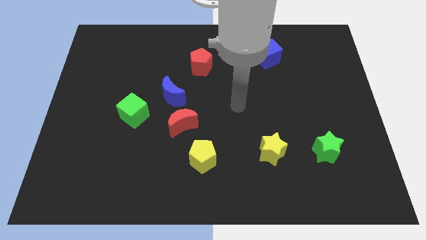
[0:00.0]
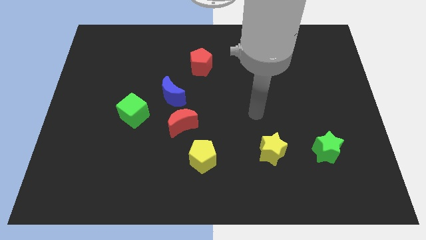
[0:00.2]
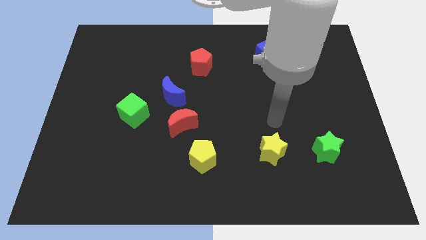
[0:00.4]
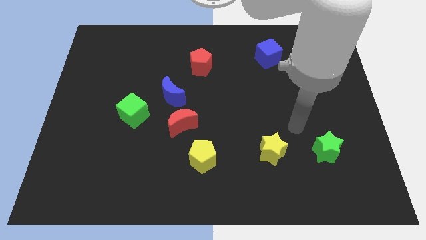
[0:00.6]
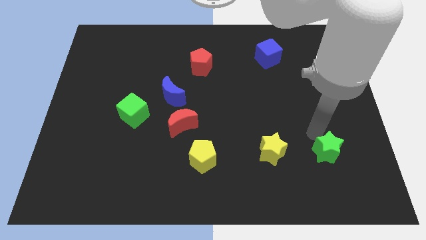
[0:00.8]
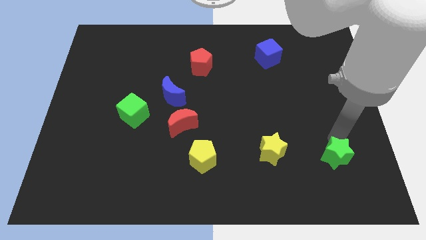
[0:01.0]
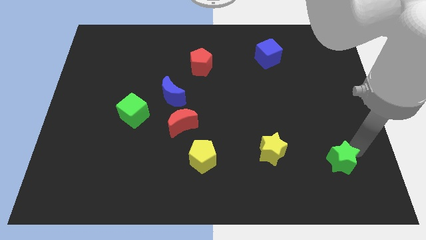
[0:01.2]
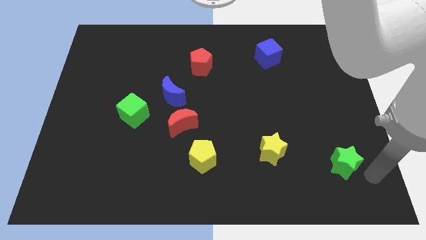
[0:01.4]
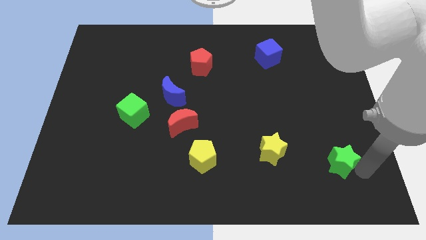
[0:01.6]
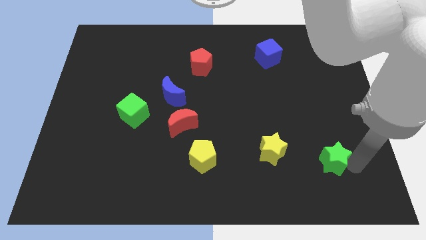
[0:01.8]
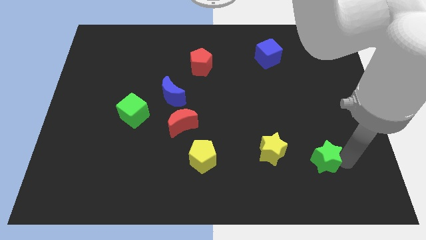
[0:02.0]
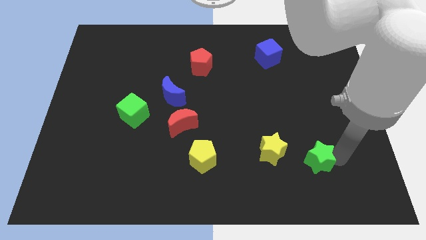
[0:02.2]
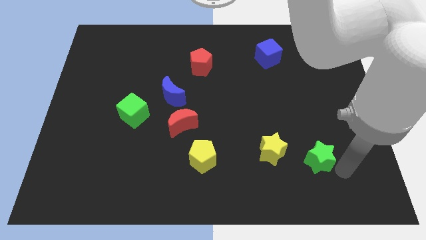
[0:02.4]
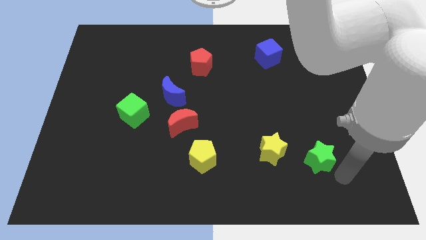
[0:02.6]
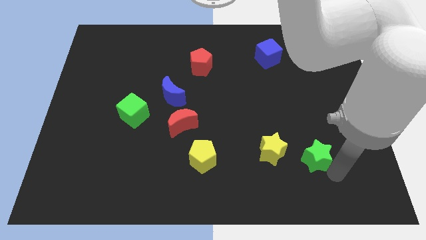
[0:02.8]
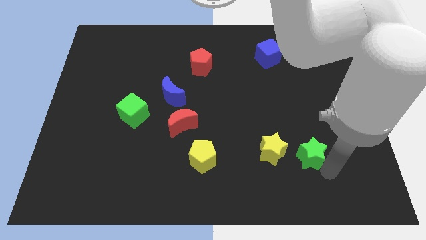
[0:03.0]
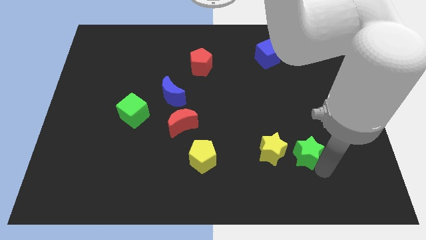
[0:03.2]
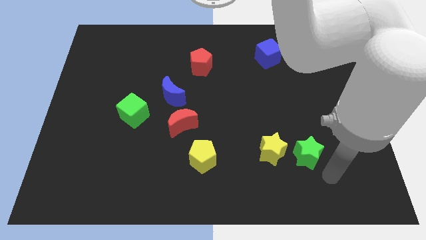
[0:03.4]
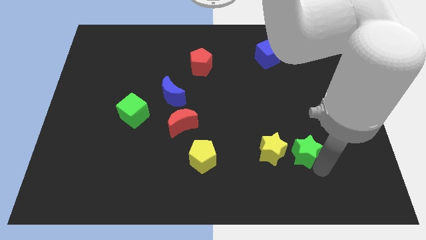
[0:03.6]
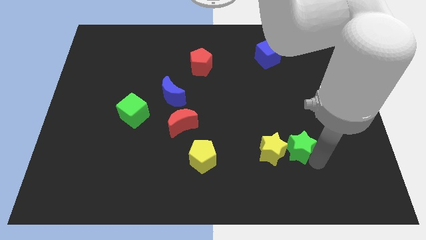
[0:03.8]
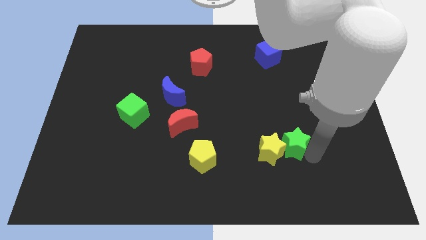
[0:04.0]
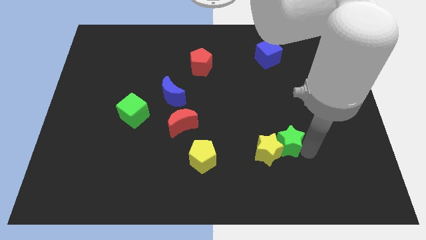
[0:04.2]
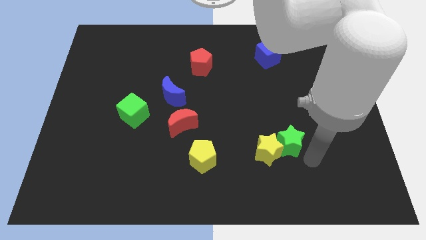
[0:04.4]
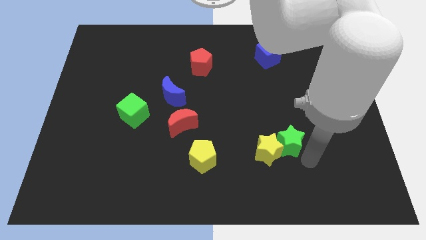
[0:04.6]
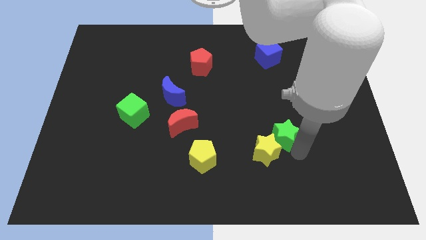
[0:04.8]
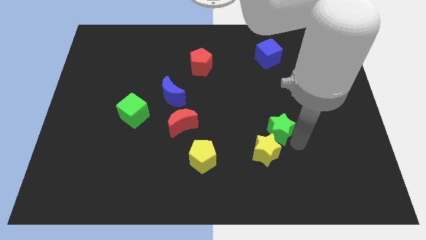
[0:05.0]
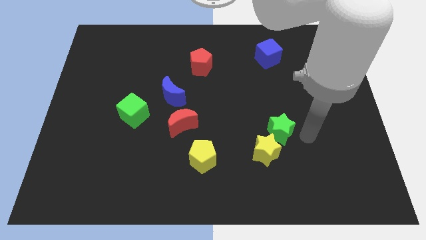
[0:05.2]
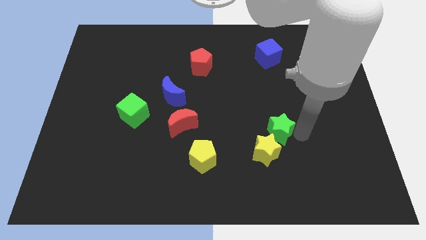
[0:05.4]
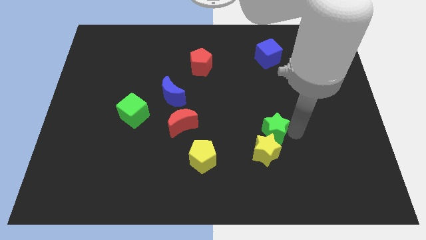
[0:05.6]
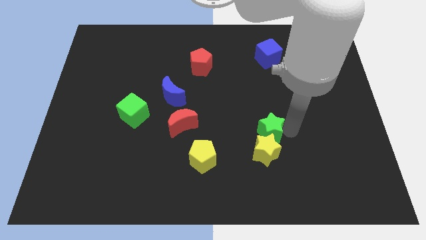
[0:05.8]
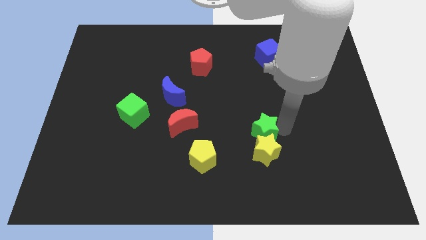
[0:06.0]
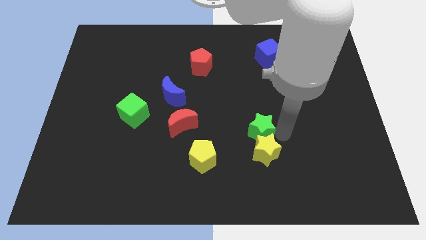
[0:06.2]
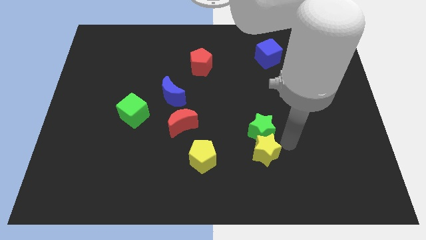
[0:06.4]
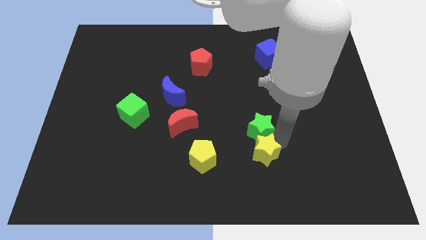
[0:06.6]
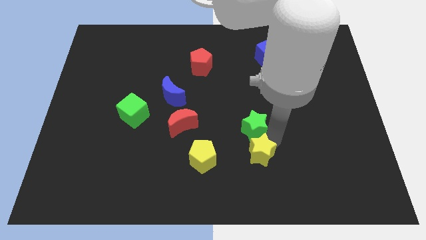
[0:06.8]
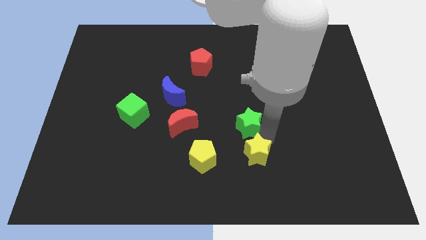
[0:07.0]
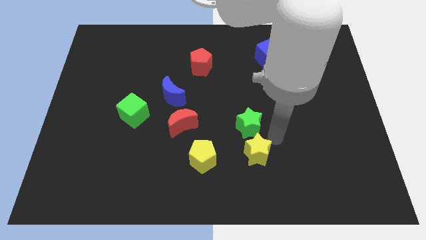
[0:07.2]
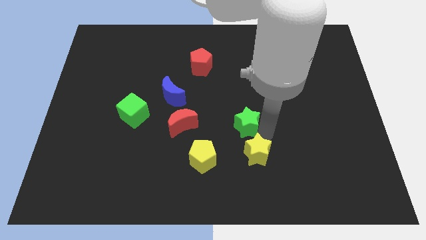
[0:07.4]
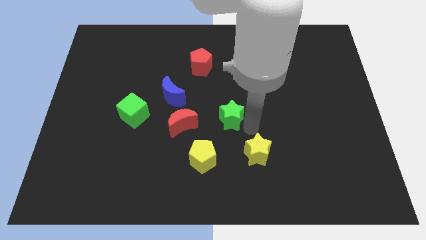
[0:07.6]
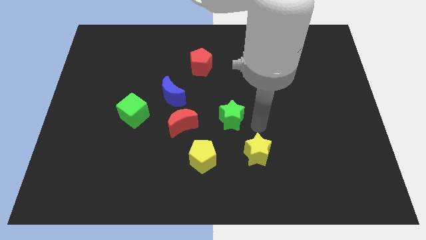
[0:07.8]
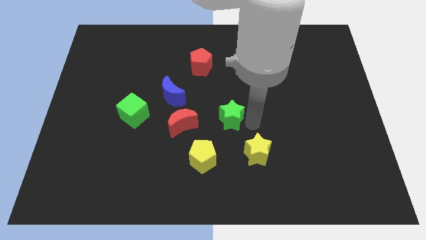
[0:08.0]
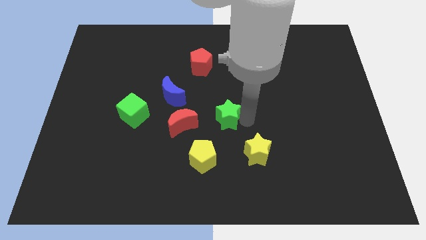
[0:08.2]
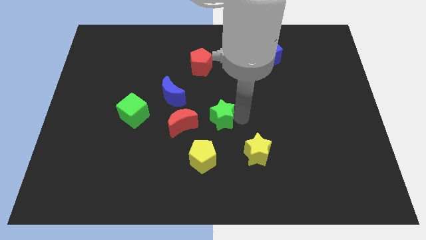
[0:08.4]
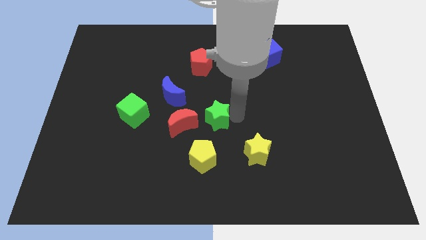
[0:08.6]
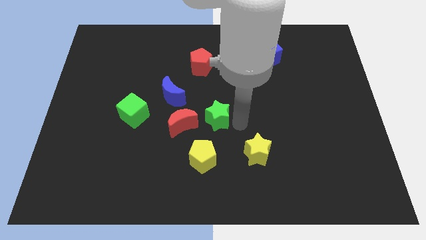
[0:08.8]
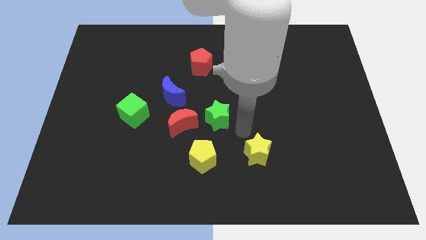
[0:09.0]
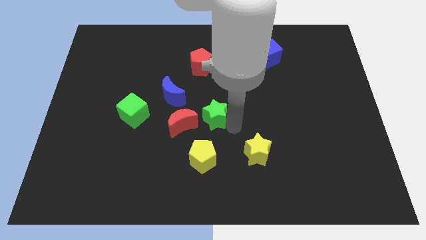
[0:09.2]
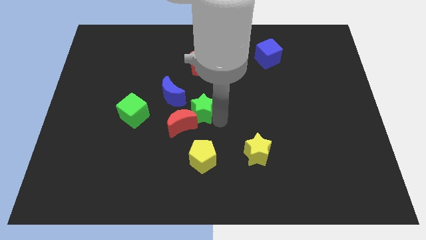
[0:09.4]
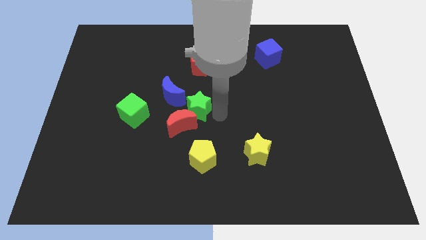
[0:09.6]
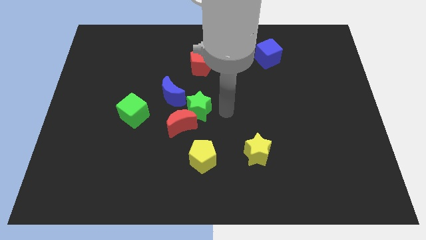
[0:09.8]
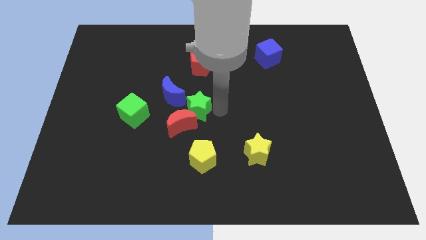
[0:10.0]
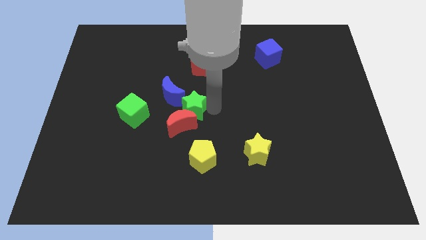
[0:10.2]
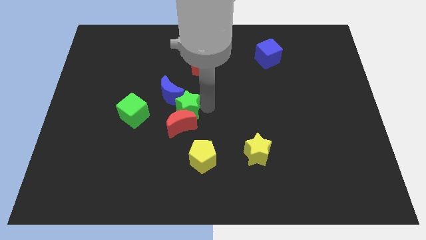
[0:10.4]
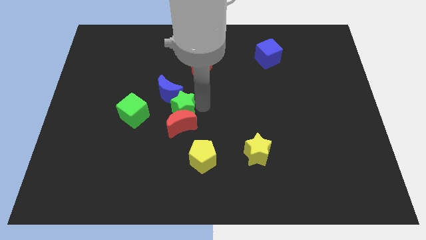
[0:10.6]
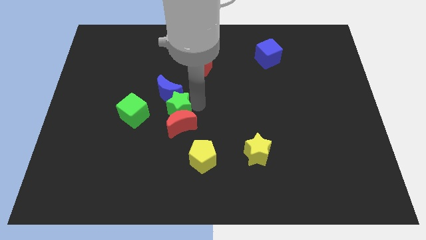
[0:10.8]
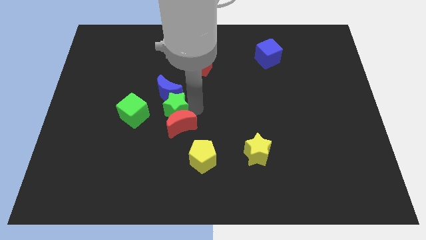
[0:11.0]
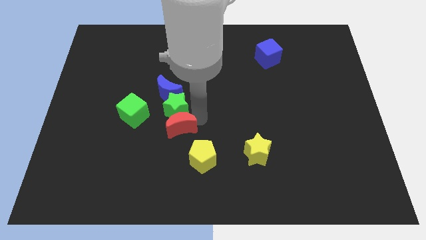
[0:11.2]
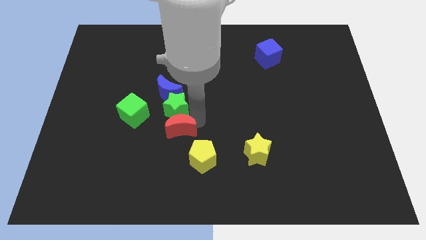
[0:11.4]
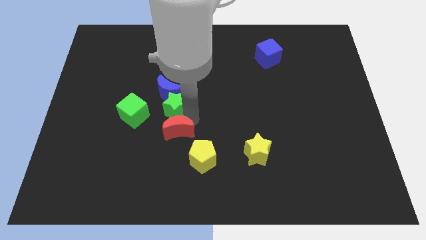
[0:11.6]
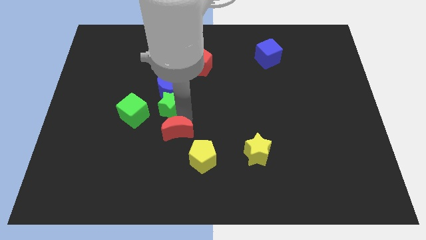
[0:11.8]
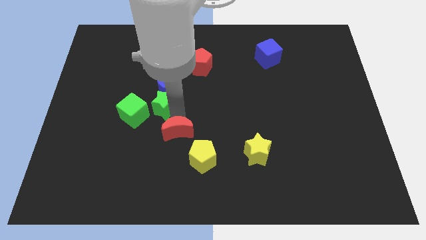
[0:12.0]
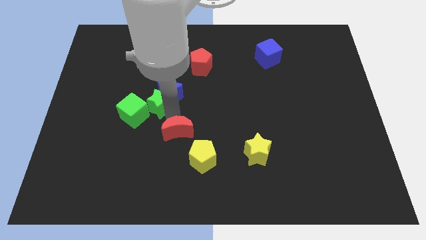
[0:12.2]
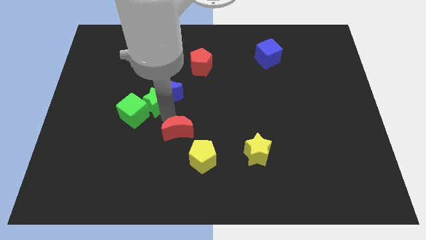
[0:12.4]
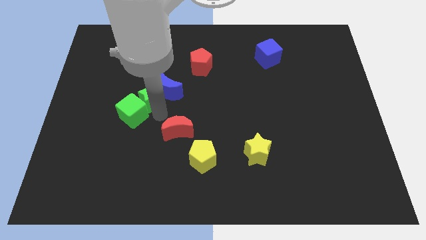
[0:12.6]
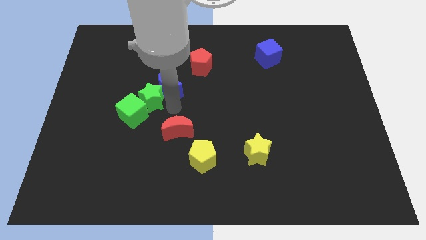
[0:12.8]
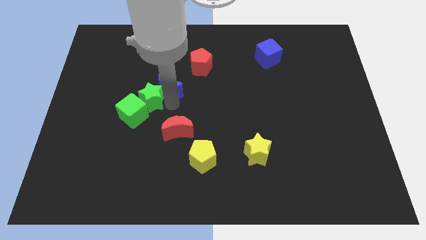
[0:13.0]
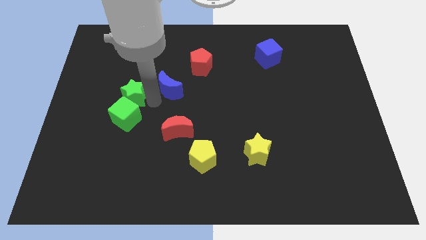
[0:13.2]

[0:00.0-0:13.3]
slide the green star to the top left side of the green cube

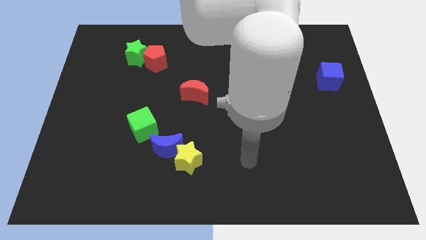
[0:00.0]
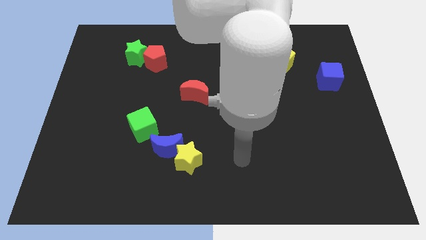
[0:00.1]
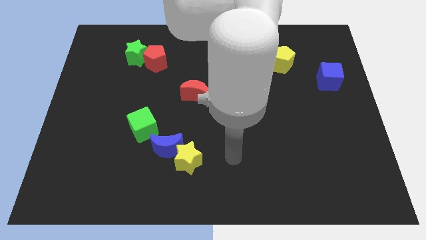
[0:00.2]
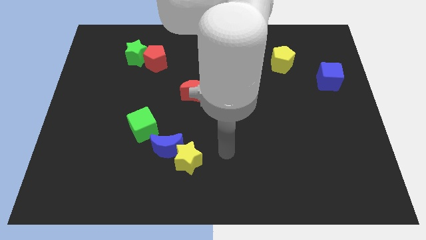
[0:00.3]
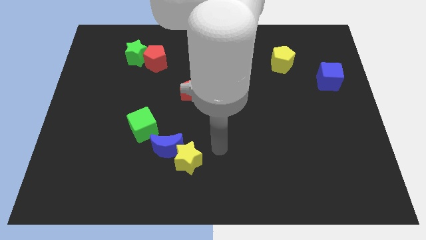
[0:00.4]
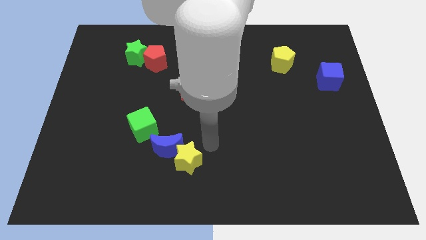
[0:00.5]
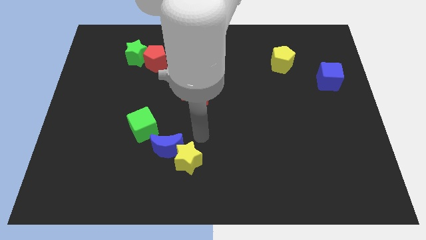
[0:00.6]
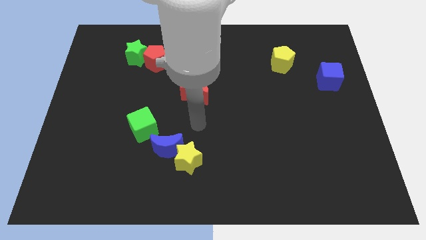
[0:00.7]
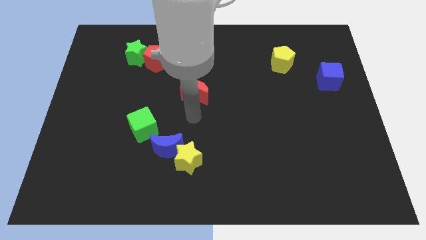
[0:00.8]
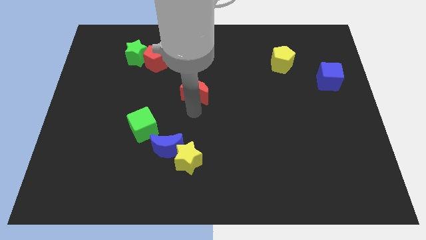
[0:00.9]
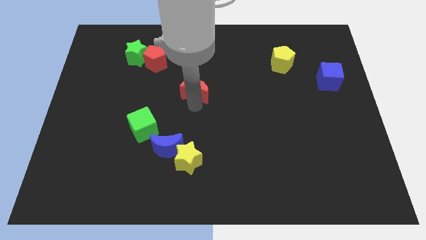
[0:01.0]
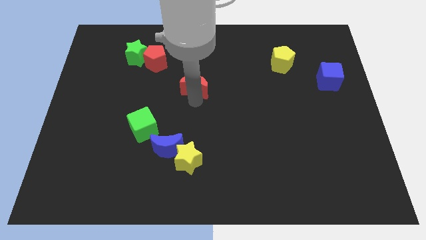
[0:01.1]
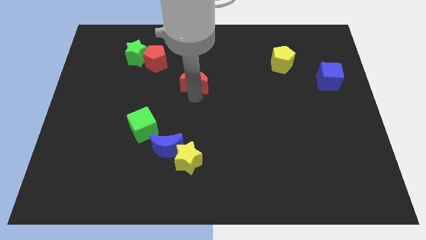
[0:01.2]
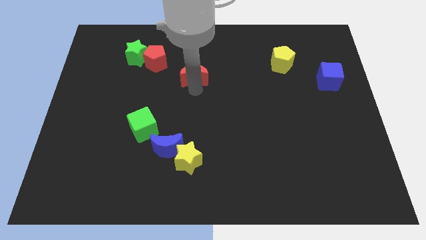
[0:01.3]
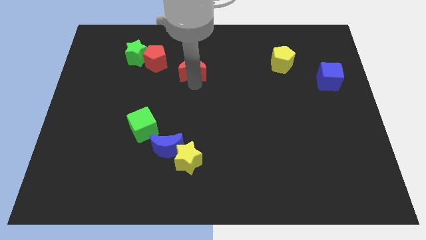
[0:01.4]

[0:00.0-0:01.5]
slide the red moon to the right side of the red pentagon

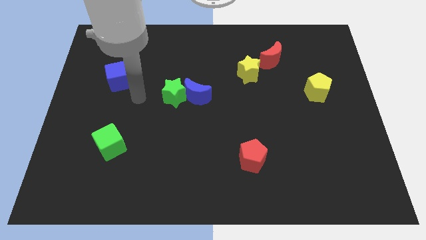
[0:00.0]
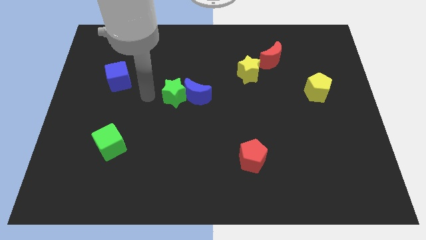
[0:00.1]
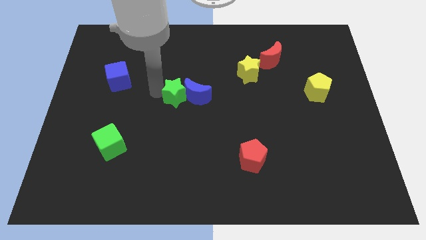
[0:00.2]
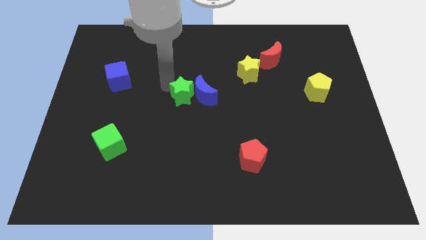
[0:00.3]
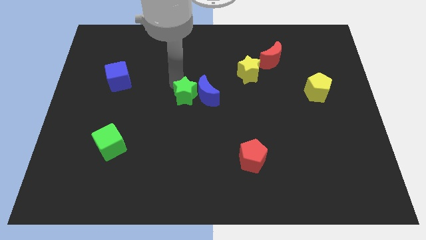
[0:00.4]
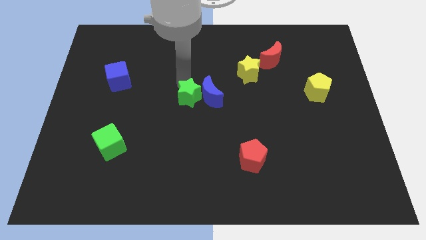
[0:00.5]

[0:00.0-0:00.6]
put the yellow star diagonally up and to the right of the blue moon
